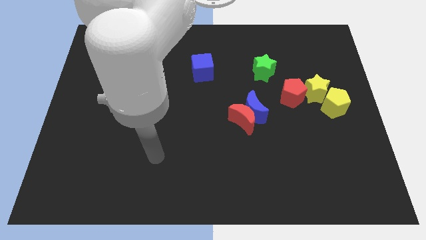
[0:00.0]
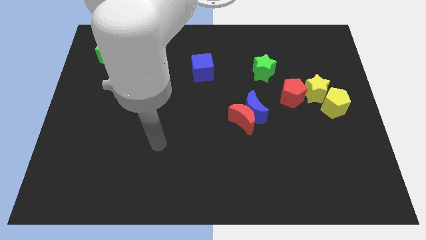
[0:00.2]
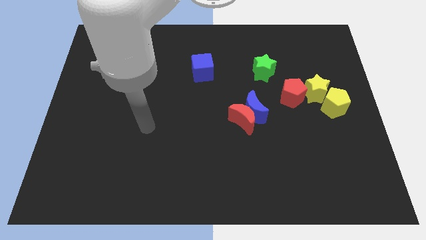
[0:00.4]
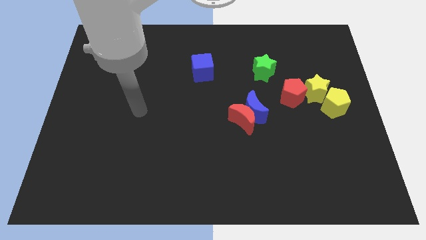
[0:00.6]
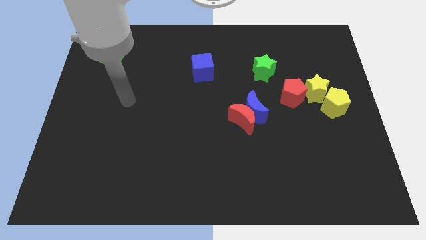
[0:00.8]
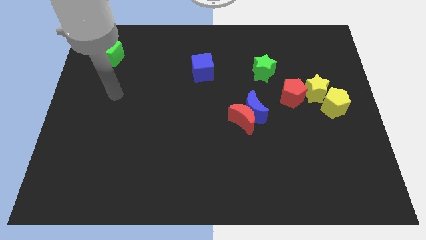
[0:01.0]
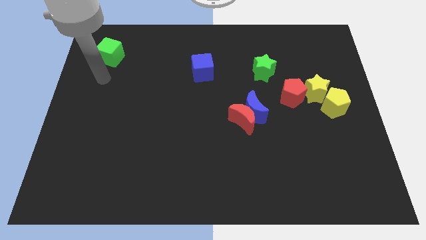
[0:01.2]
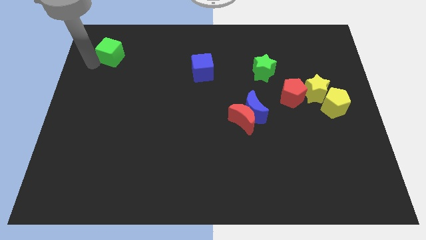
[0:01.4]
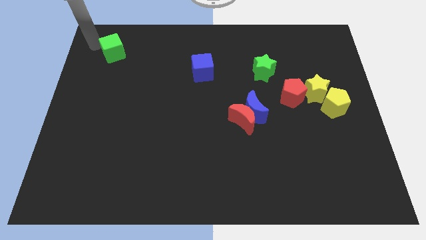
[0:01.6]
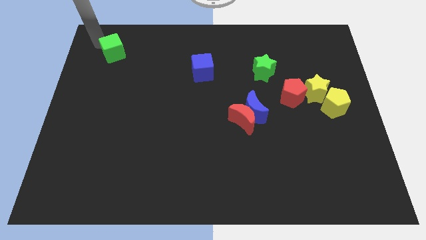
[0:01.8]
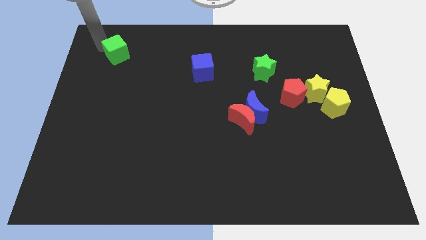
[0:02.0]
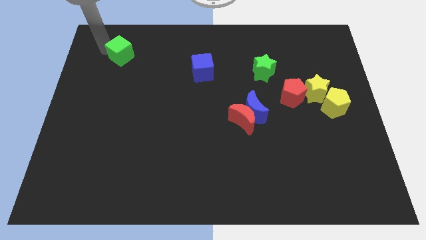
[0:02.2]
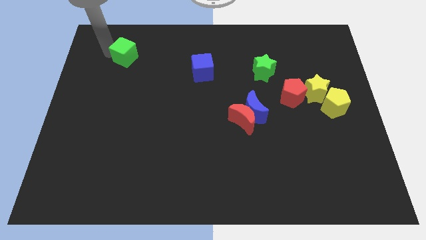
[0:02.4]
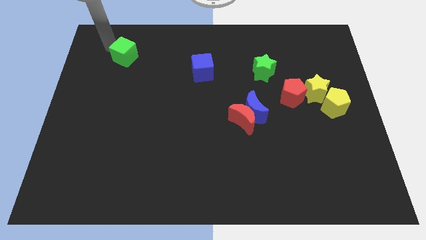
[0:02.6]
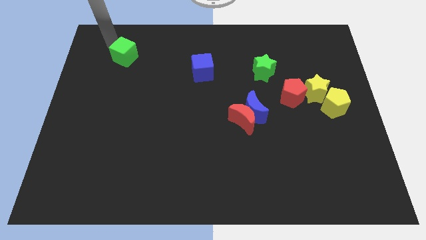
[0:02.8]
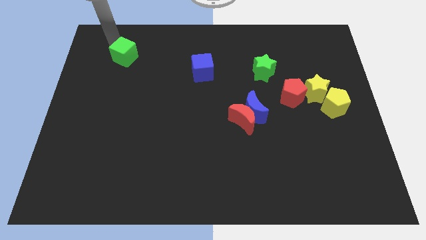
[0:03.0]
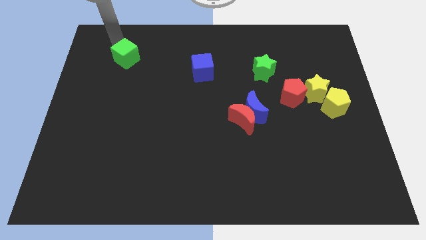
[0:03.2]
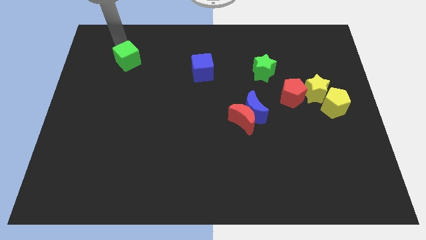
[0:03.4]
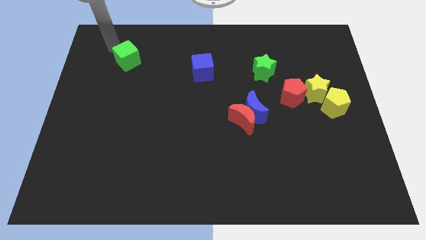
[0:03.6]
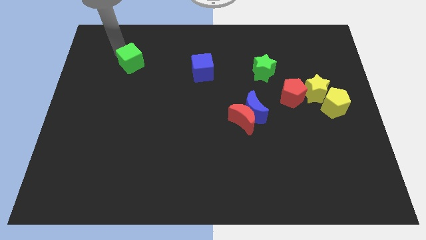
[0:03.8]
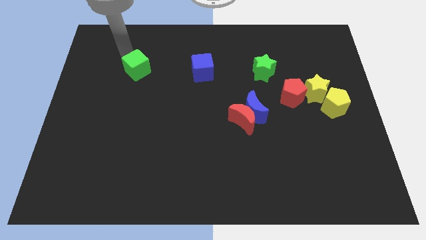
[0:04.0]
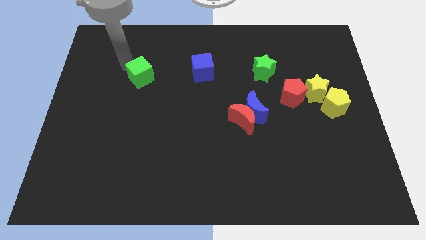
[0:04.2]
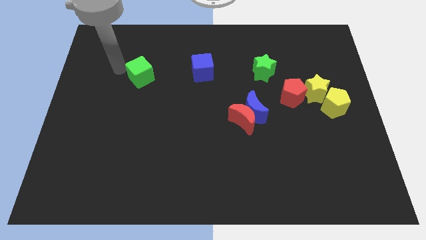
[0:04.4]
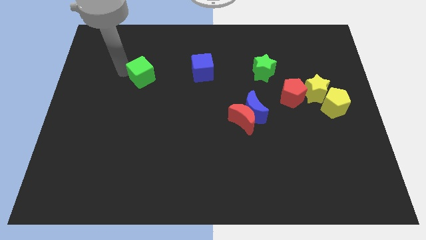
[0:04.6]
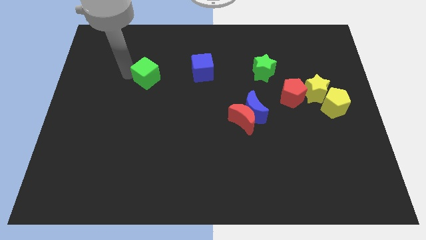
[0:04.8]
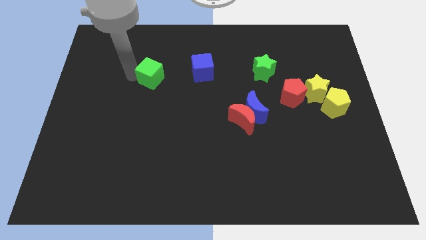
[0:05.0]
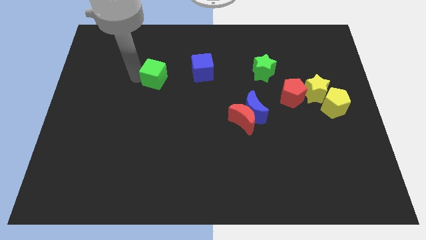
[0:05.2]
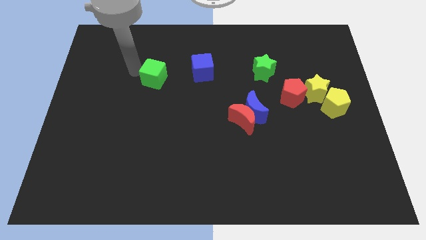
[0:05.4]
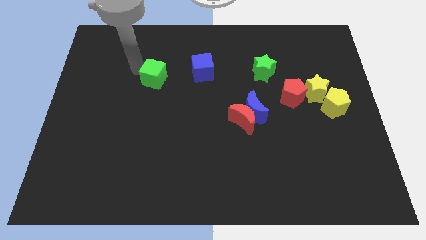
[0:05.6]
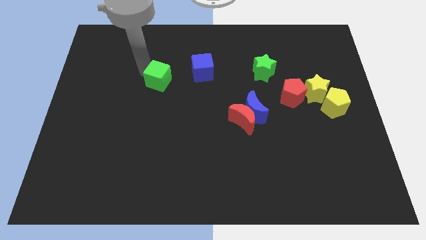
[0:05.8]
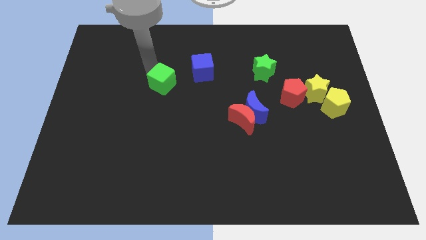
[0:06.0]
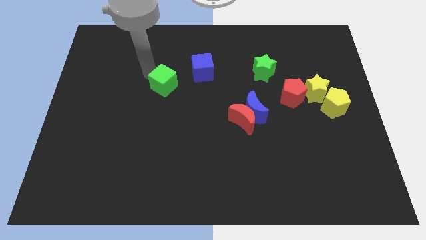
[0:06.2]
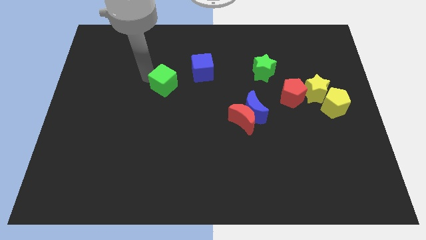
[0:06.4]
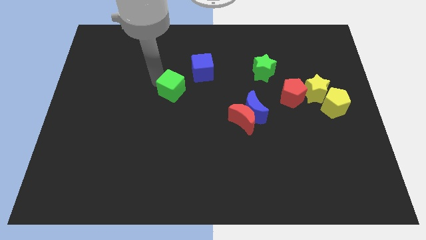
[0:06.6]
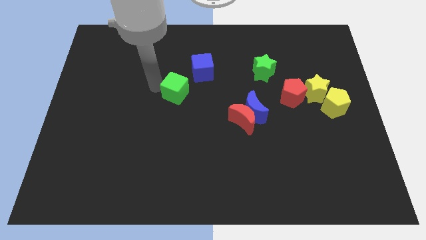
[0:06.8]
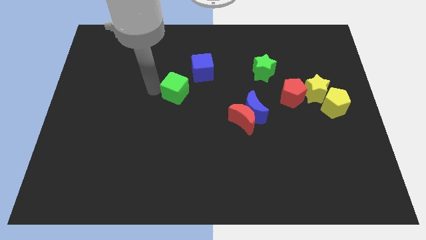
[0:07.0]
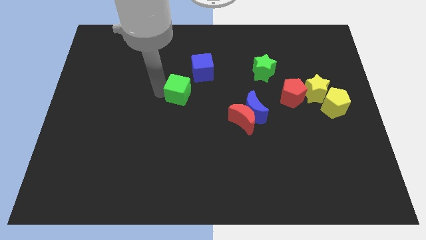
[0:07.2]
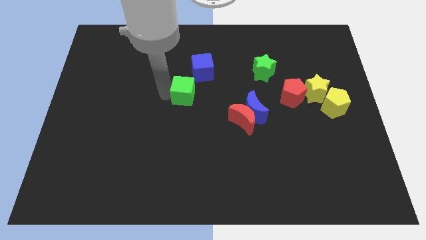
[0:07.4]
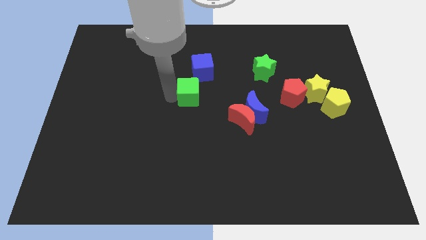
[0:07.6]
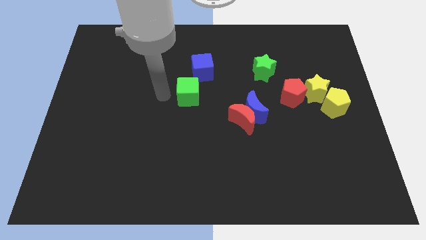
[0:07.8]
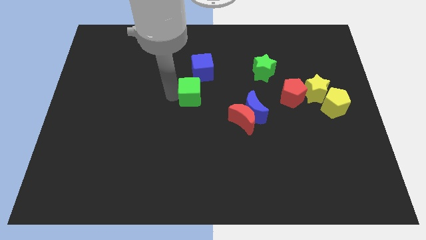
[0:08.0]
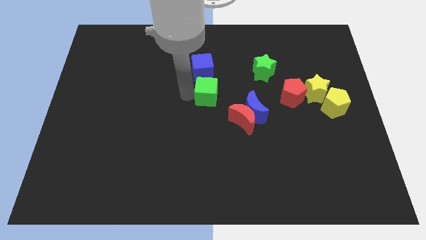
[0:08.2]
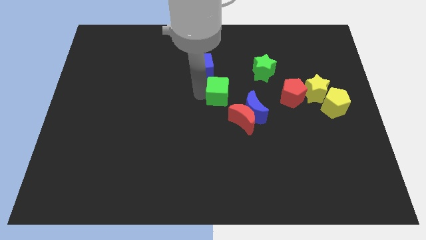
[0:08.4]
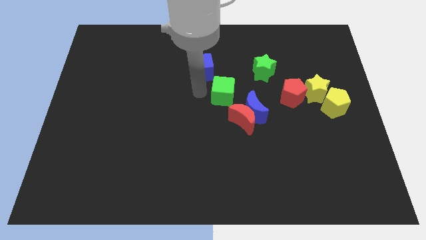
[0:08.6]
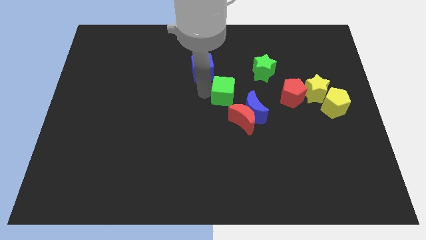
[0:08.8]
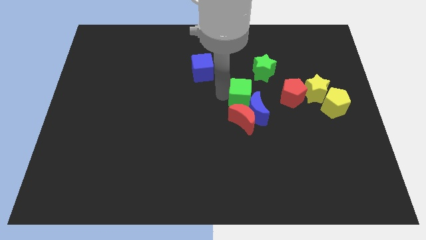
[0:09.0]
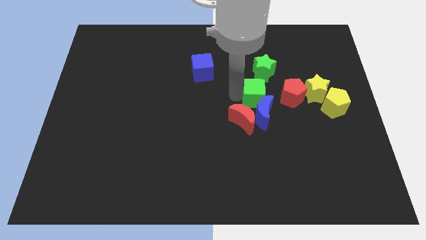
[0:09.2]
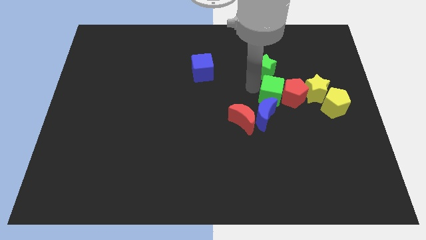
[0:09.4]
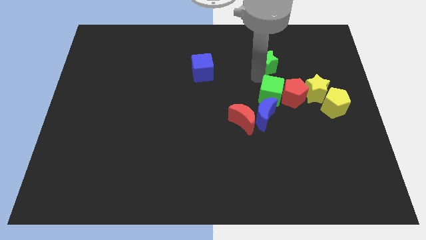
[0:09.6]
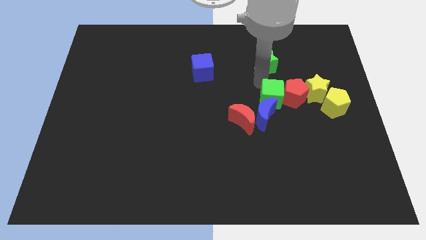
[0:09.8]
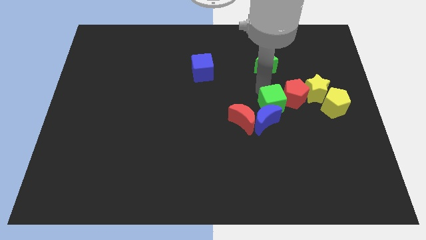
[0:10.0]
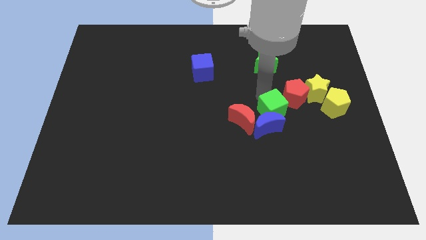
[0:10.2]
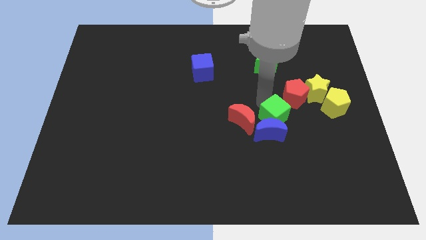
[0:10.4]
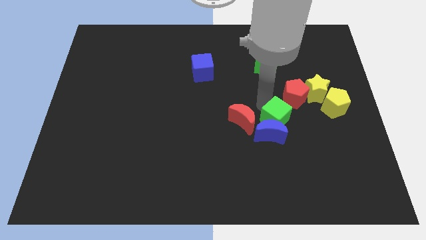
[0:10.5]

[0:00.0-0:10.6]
move the green cube below the red pentagon

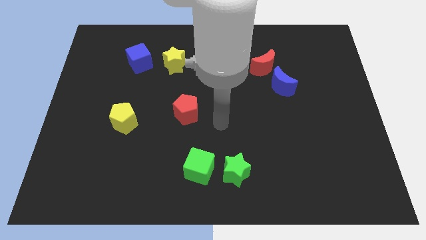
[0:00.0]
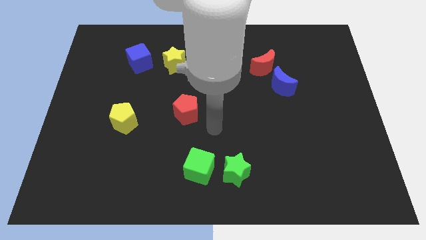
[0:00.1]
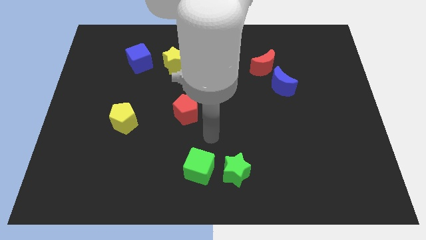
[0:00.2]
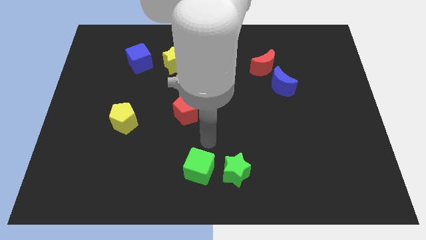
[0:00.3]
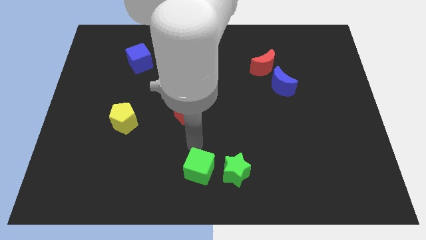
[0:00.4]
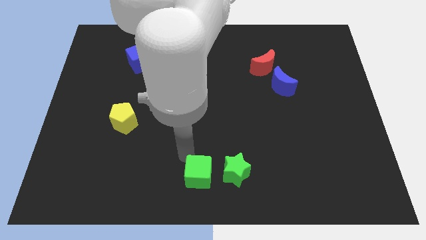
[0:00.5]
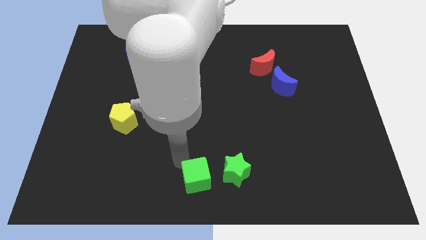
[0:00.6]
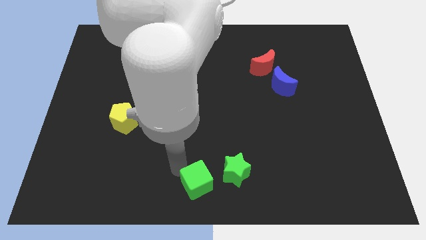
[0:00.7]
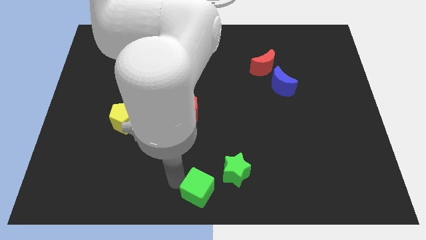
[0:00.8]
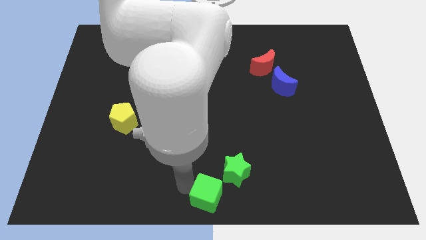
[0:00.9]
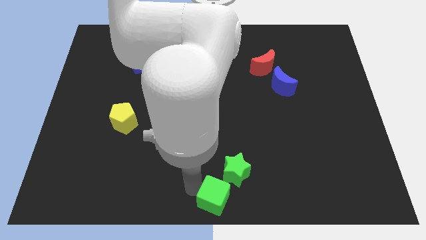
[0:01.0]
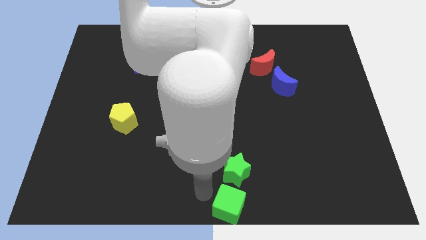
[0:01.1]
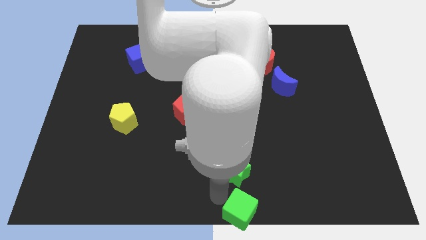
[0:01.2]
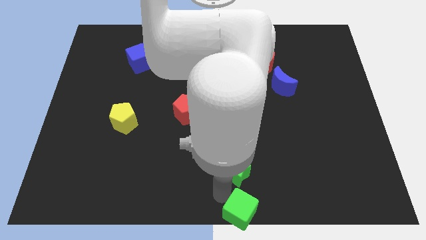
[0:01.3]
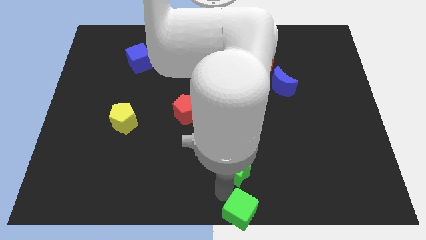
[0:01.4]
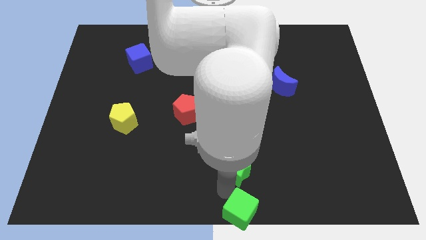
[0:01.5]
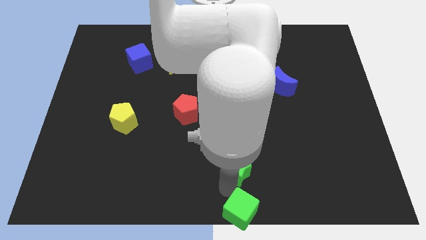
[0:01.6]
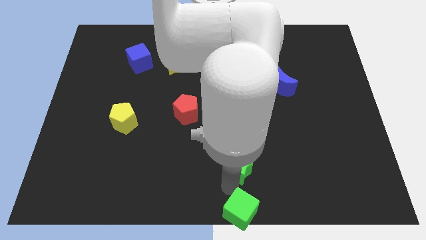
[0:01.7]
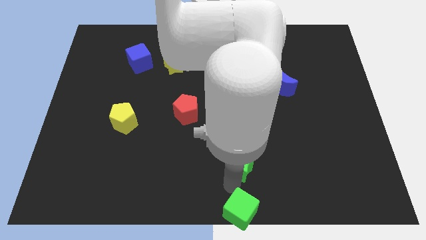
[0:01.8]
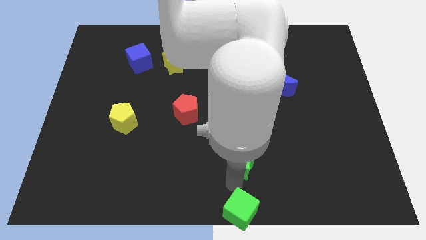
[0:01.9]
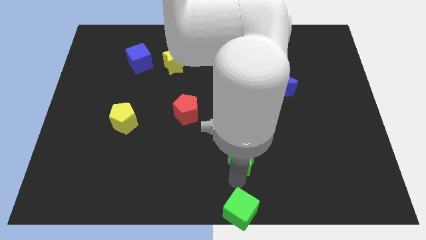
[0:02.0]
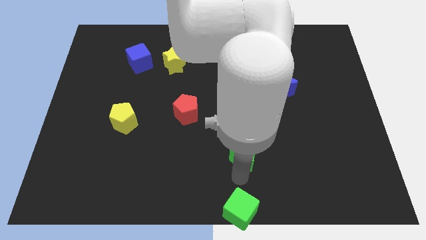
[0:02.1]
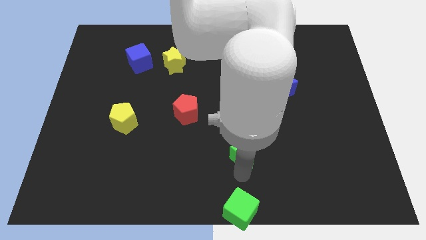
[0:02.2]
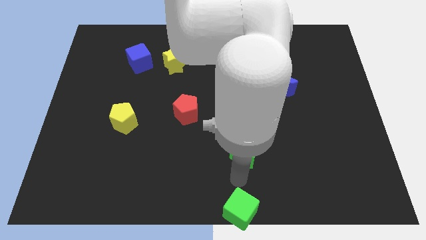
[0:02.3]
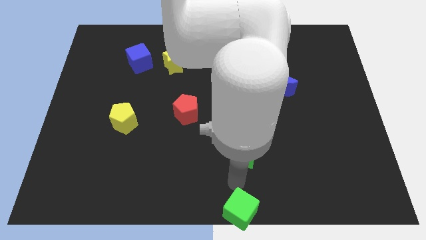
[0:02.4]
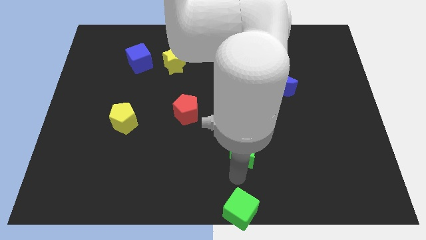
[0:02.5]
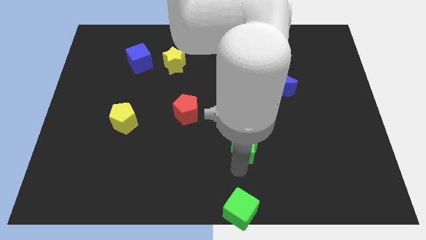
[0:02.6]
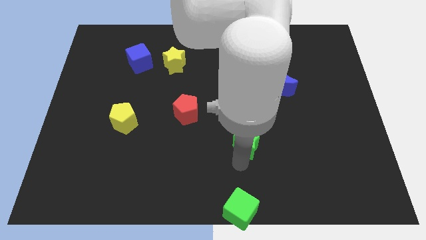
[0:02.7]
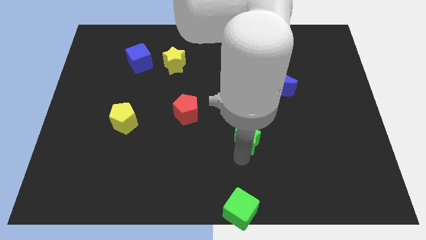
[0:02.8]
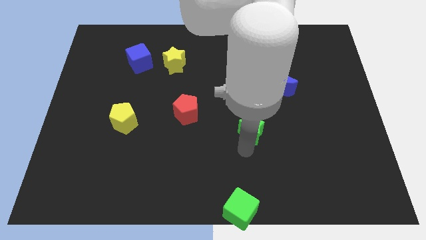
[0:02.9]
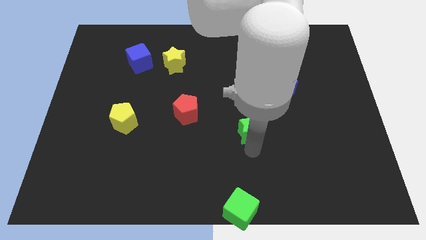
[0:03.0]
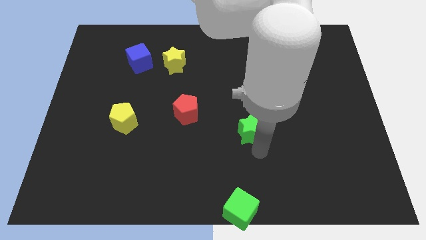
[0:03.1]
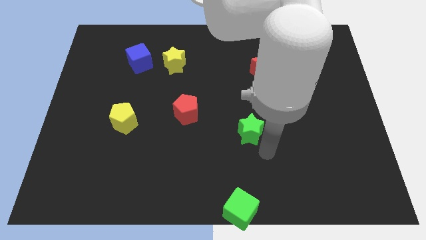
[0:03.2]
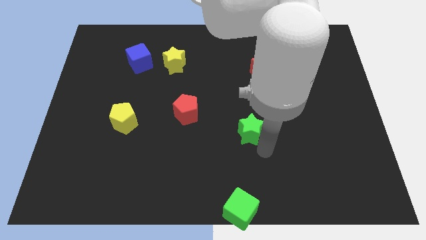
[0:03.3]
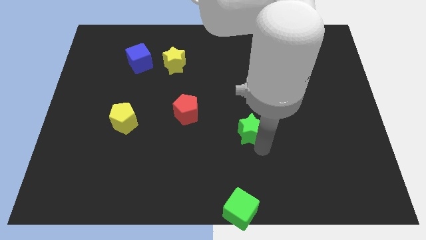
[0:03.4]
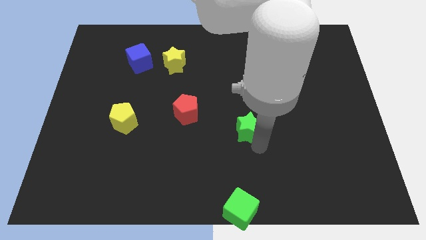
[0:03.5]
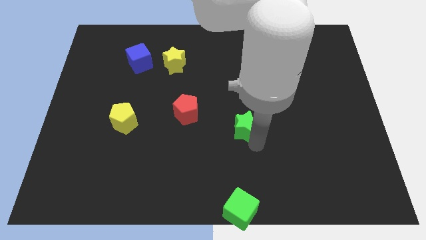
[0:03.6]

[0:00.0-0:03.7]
slide the green star to the right of the red pentagon
